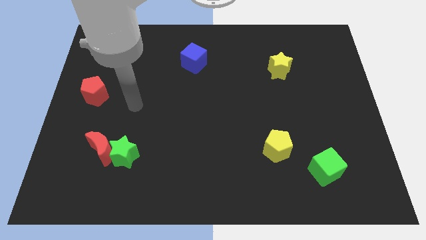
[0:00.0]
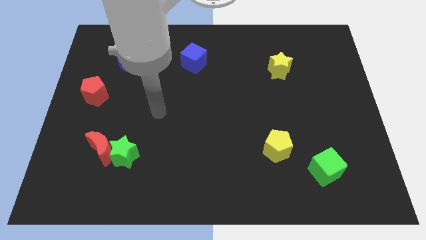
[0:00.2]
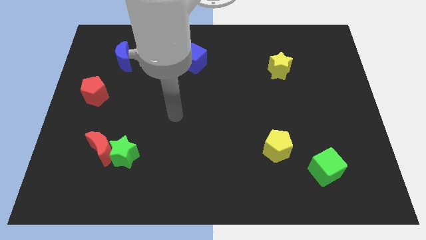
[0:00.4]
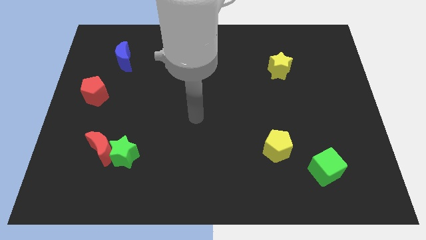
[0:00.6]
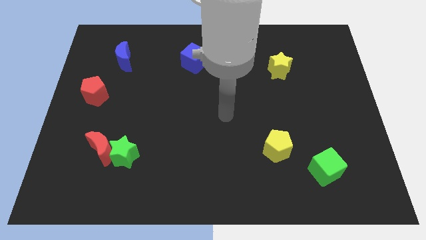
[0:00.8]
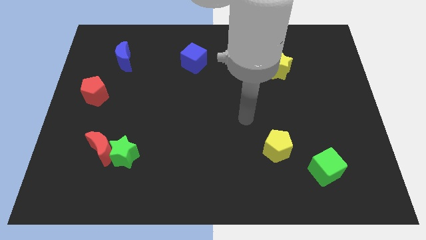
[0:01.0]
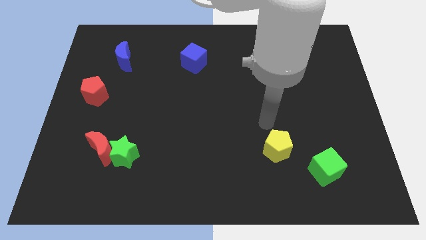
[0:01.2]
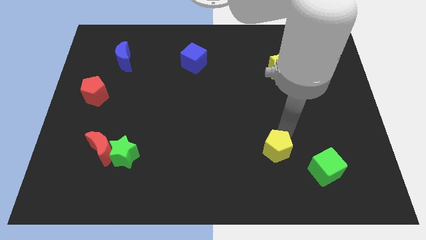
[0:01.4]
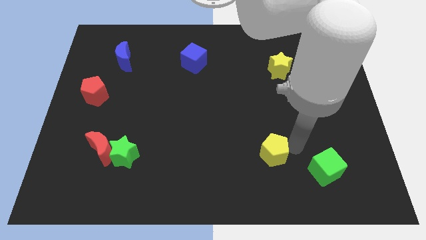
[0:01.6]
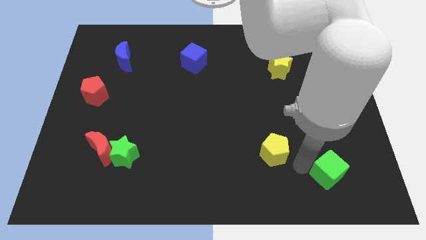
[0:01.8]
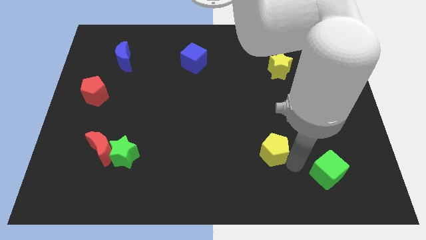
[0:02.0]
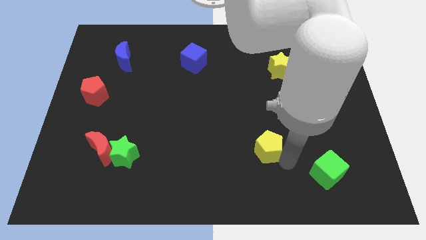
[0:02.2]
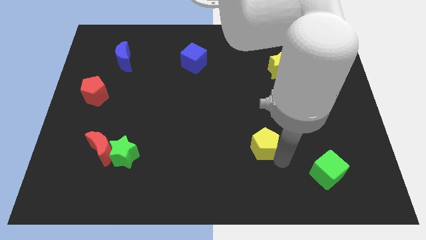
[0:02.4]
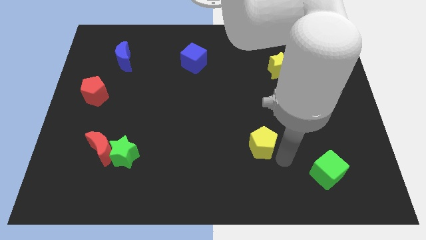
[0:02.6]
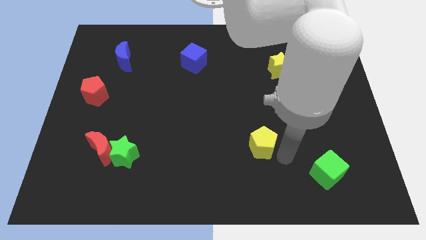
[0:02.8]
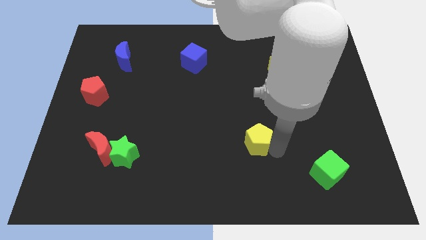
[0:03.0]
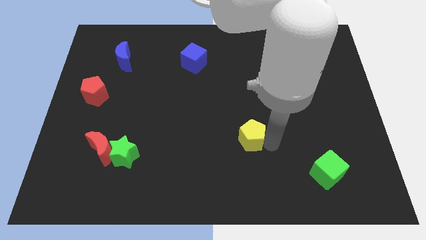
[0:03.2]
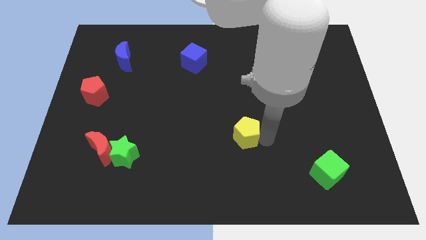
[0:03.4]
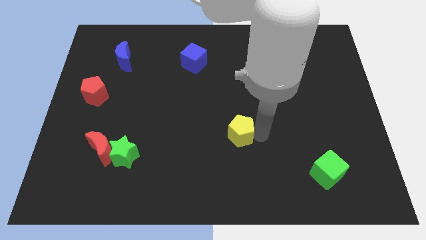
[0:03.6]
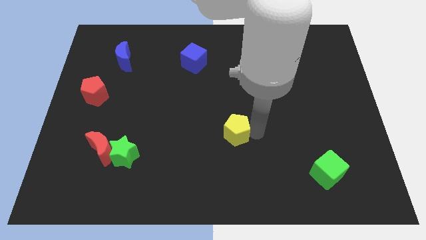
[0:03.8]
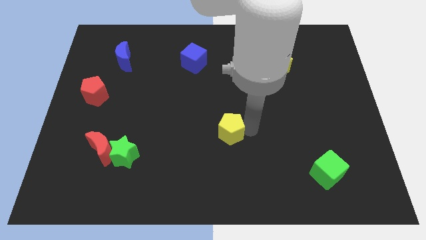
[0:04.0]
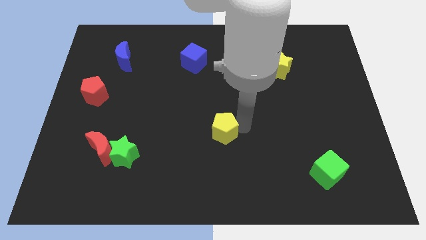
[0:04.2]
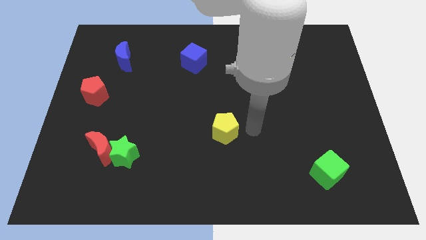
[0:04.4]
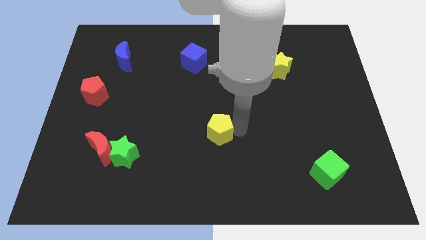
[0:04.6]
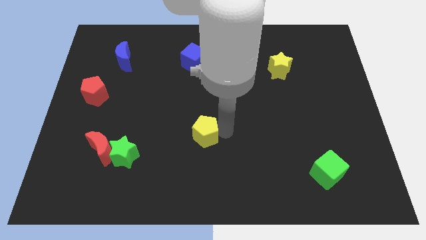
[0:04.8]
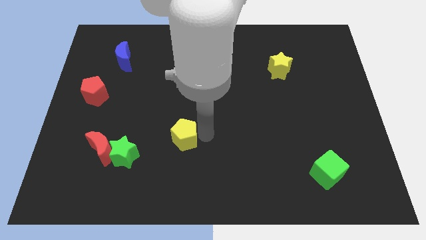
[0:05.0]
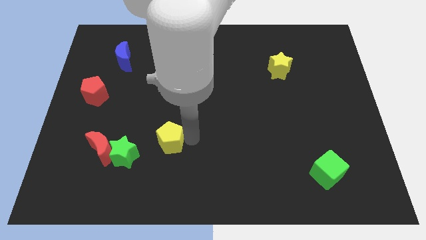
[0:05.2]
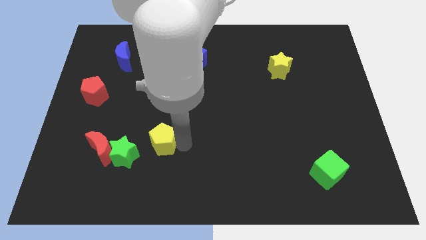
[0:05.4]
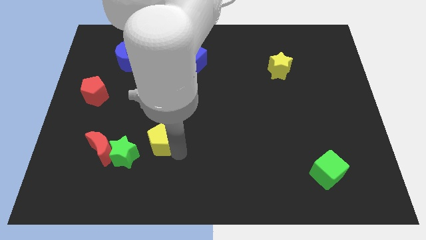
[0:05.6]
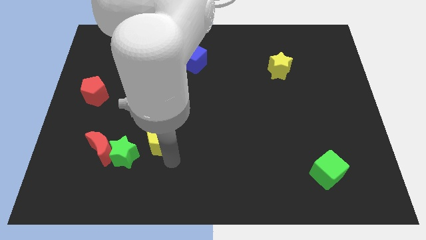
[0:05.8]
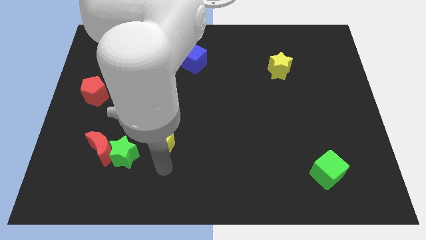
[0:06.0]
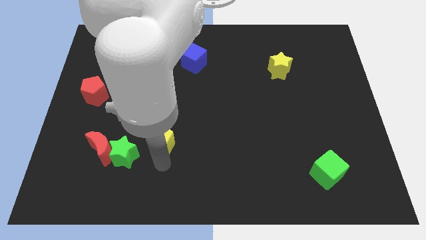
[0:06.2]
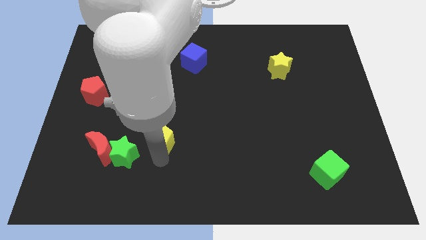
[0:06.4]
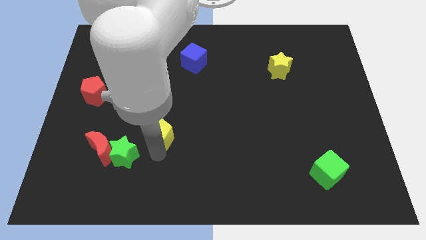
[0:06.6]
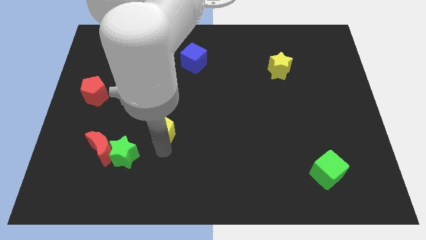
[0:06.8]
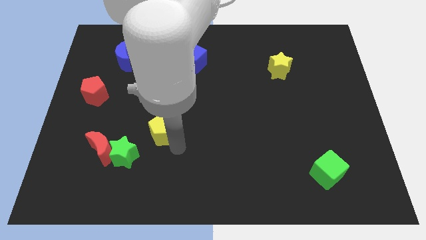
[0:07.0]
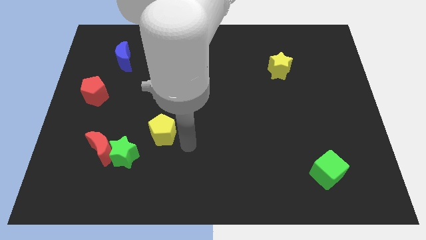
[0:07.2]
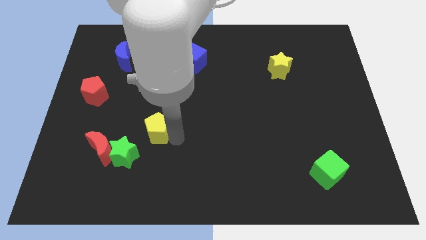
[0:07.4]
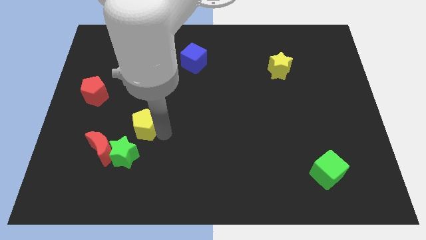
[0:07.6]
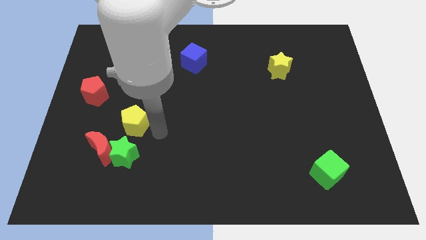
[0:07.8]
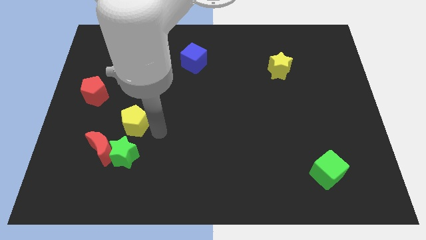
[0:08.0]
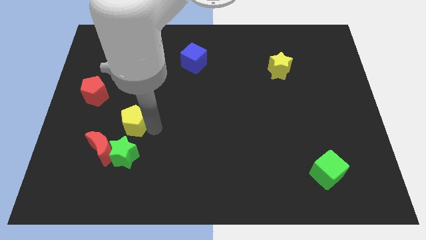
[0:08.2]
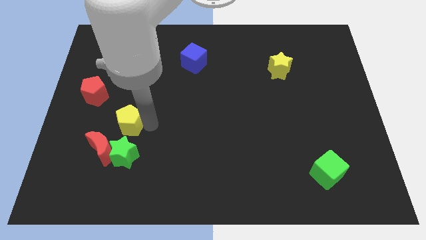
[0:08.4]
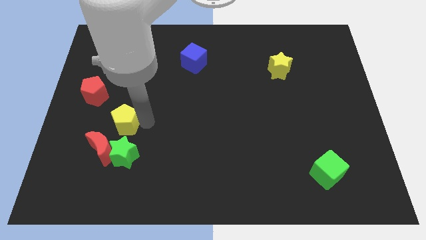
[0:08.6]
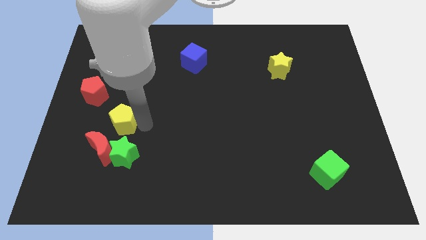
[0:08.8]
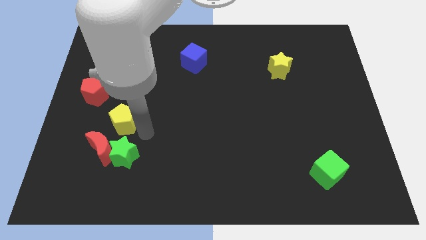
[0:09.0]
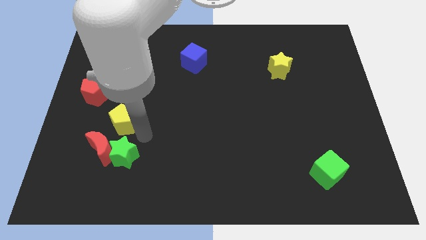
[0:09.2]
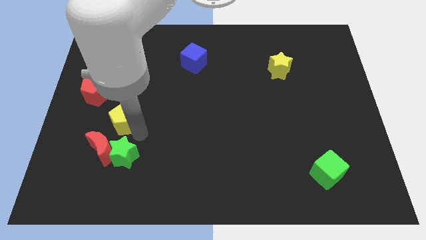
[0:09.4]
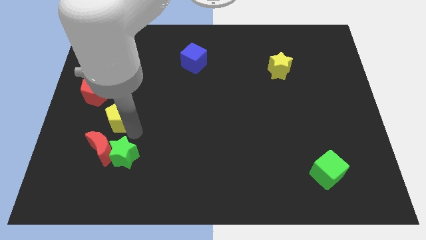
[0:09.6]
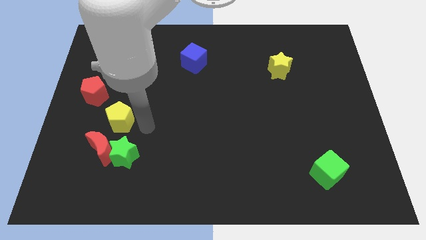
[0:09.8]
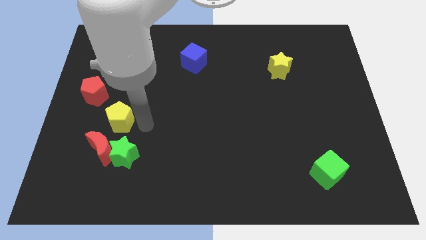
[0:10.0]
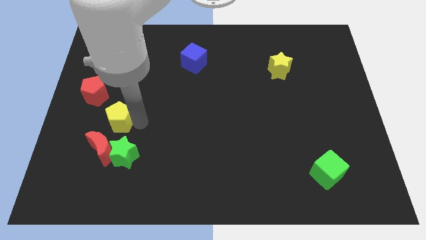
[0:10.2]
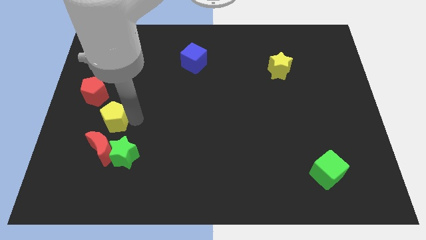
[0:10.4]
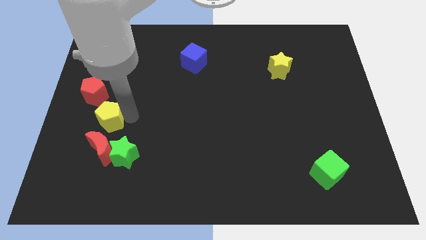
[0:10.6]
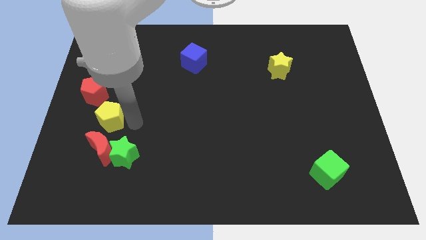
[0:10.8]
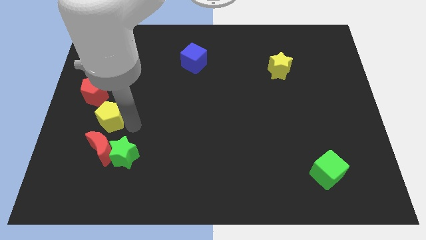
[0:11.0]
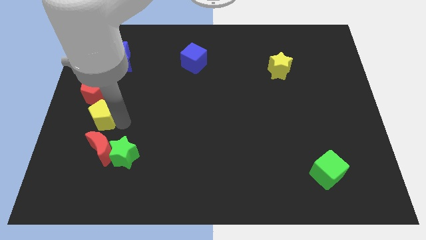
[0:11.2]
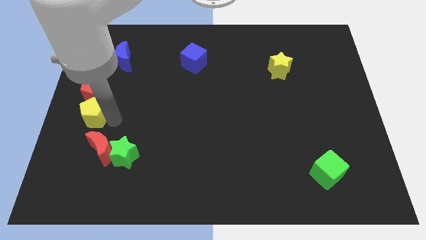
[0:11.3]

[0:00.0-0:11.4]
put the yellow pentagon to the left side of the board

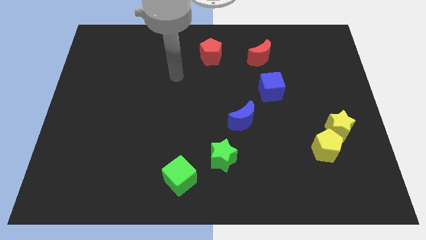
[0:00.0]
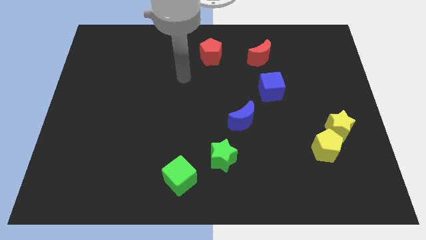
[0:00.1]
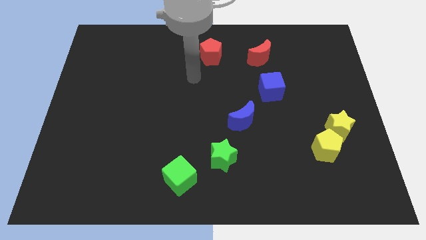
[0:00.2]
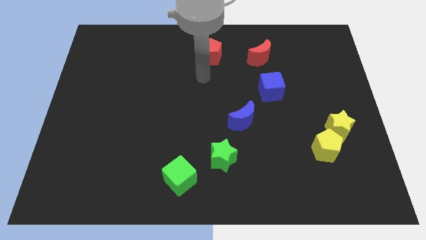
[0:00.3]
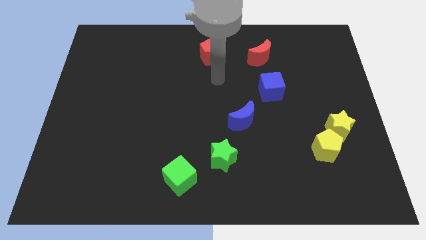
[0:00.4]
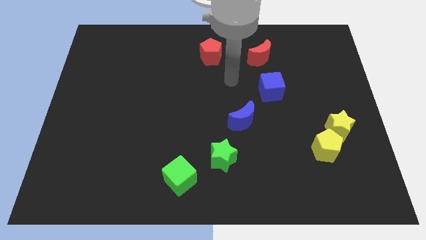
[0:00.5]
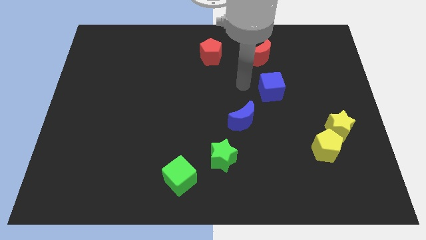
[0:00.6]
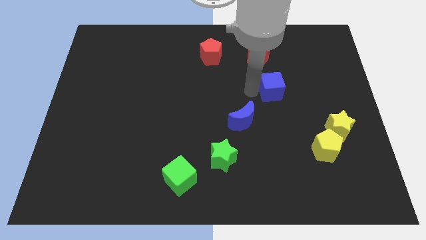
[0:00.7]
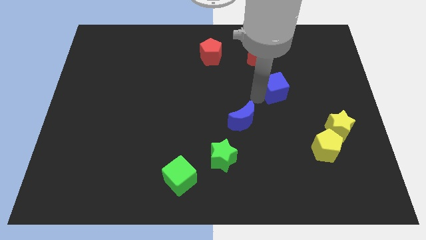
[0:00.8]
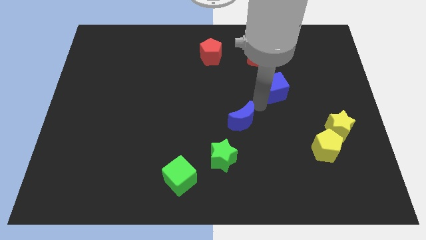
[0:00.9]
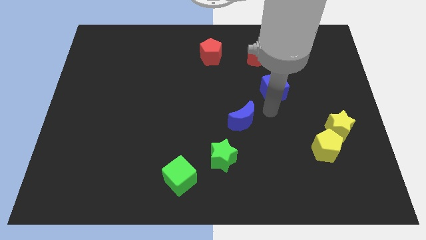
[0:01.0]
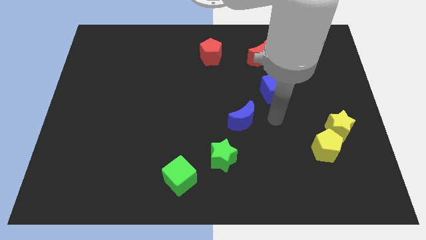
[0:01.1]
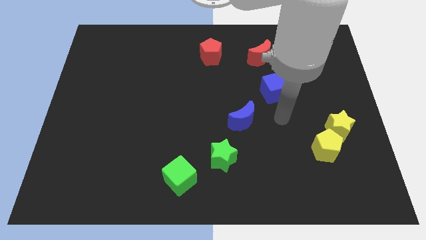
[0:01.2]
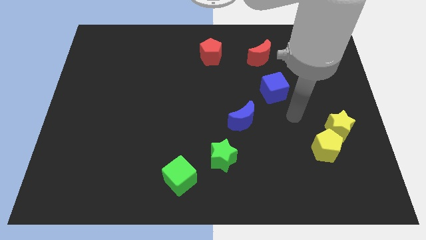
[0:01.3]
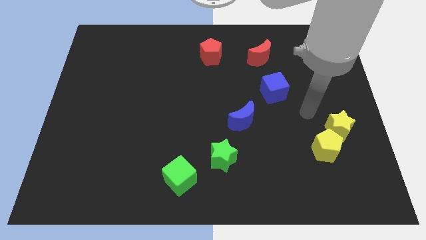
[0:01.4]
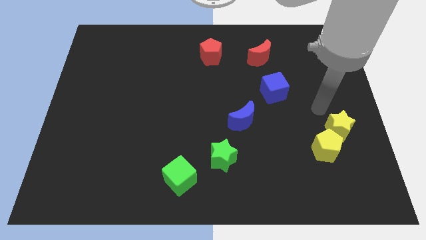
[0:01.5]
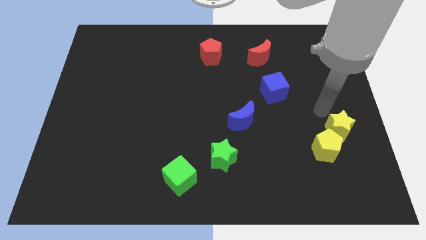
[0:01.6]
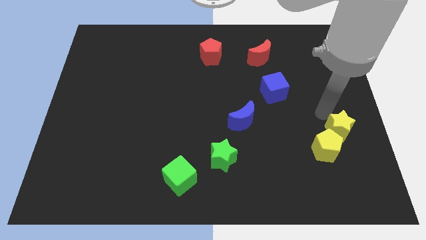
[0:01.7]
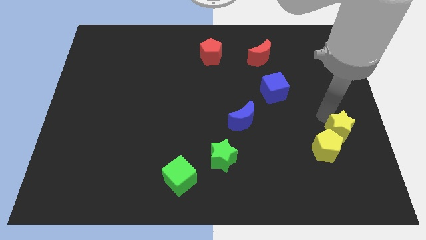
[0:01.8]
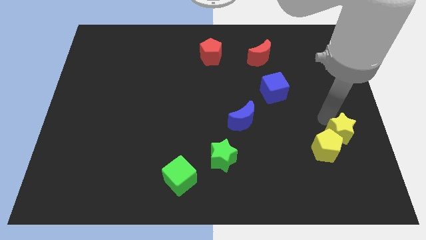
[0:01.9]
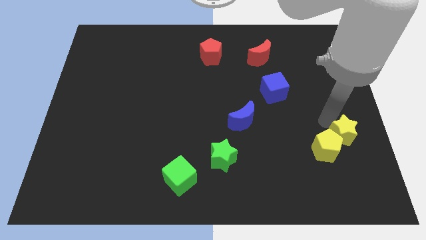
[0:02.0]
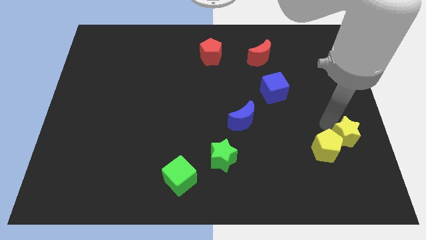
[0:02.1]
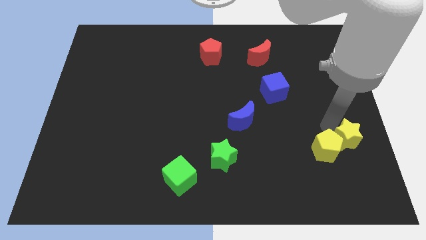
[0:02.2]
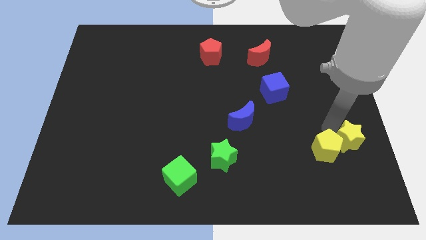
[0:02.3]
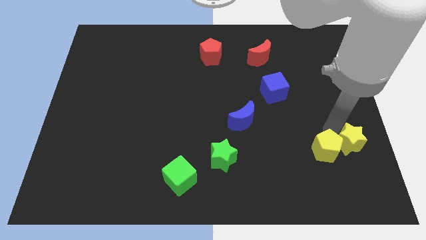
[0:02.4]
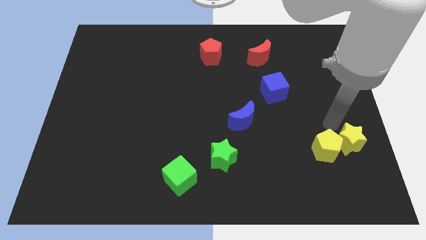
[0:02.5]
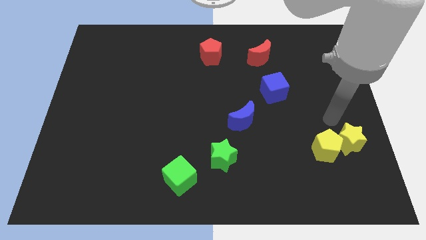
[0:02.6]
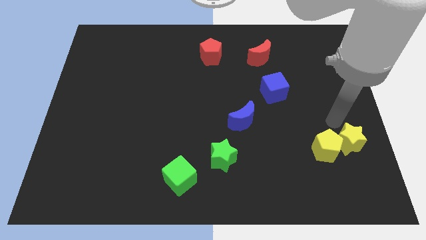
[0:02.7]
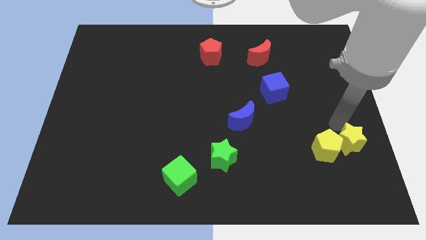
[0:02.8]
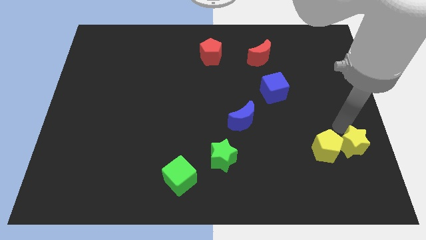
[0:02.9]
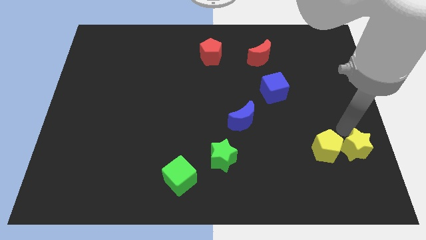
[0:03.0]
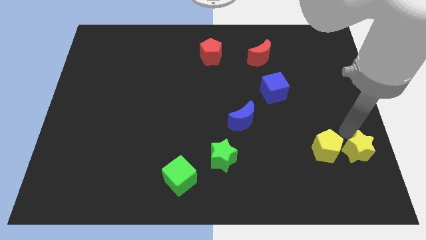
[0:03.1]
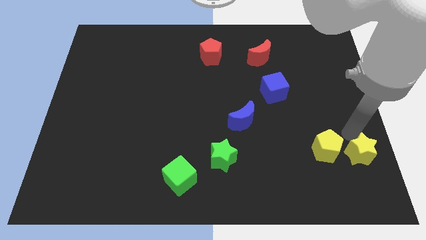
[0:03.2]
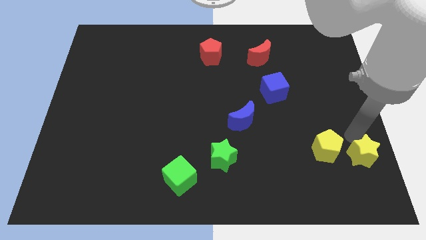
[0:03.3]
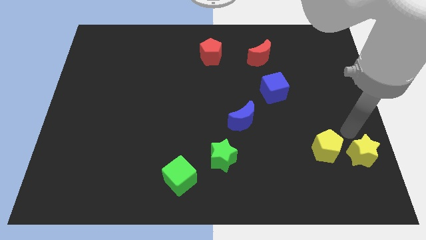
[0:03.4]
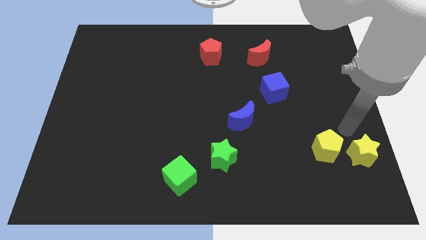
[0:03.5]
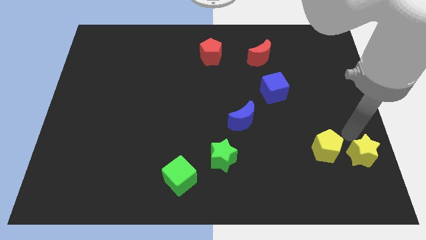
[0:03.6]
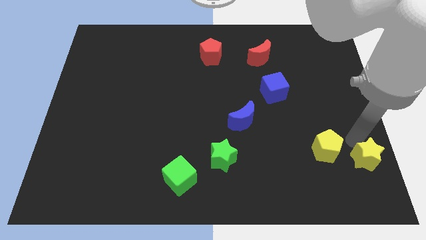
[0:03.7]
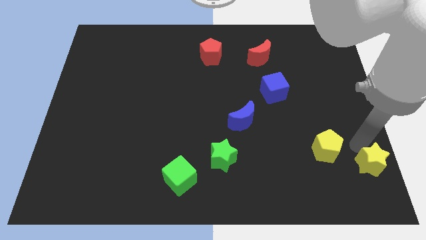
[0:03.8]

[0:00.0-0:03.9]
slide the yellow star to the bottom right
